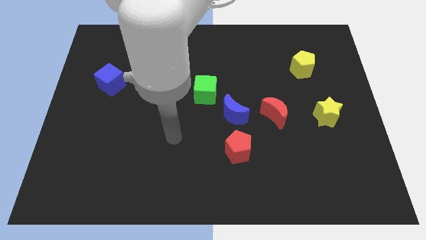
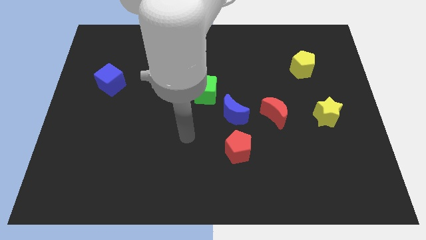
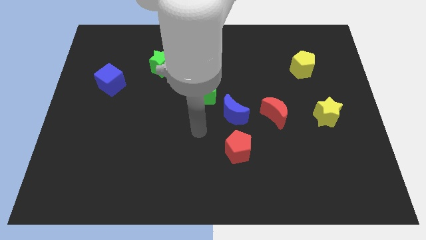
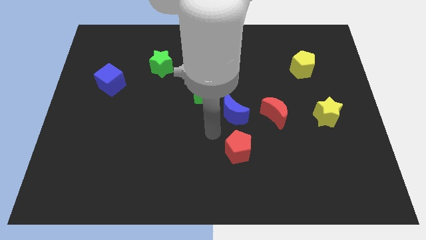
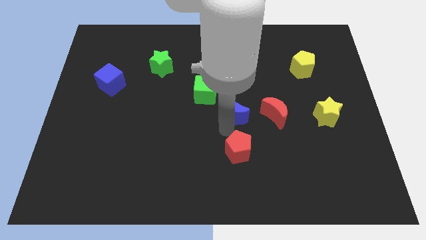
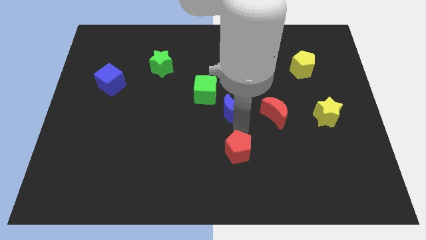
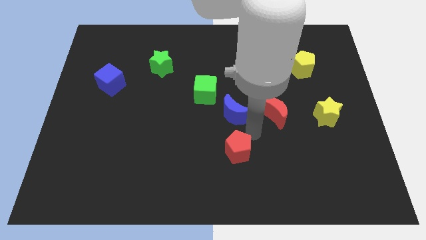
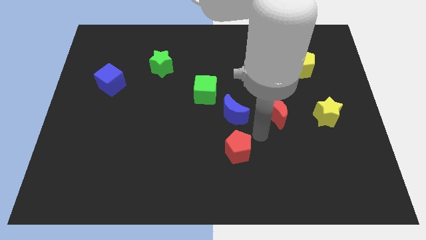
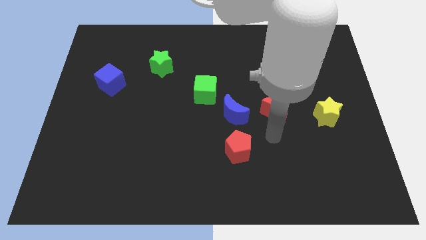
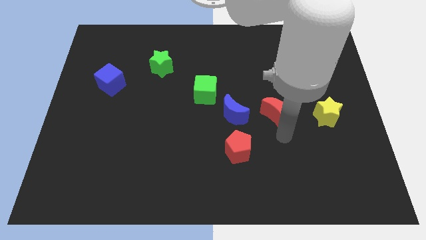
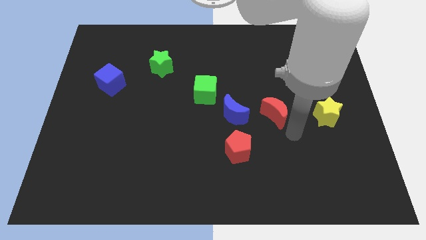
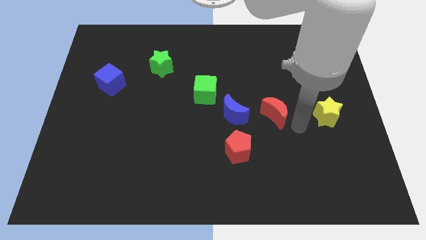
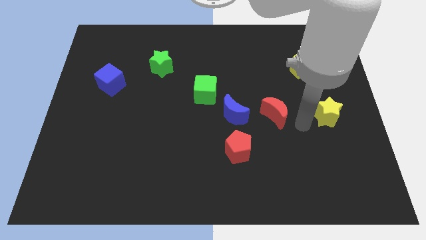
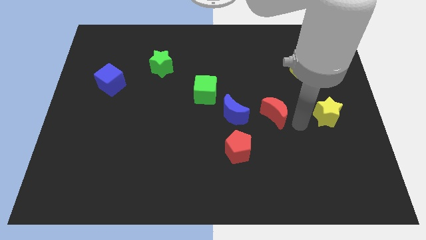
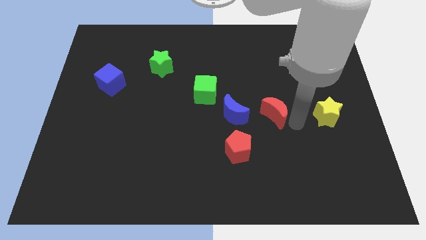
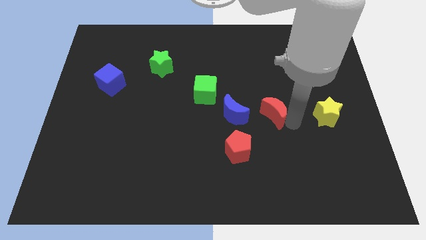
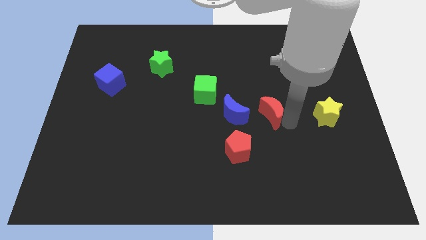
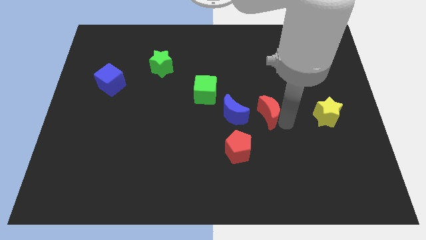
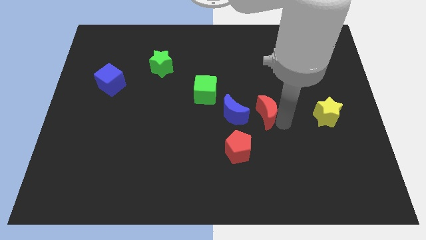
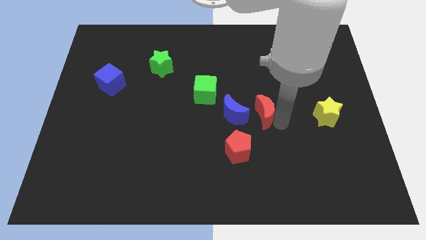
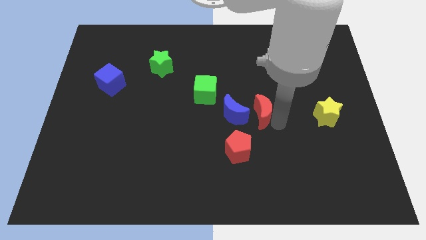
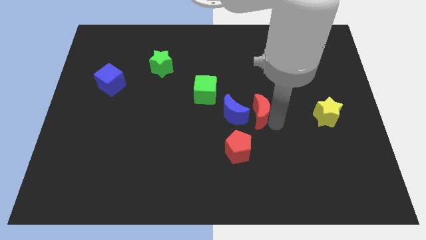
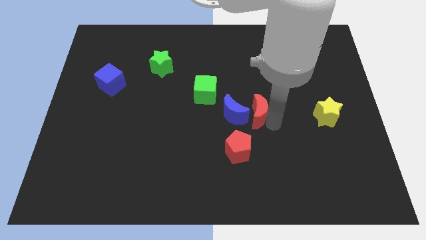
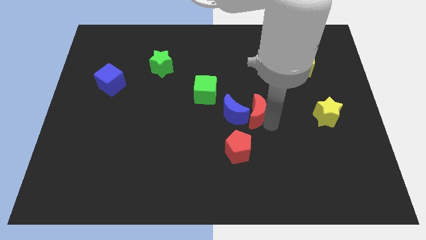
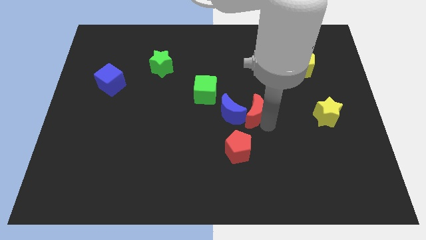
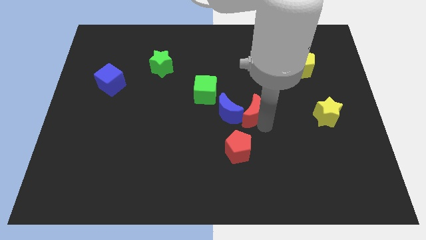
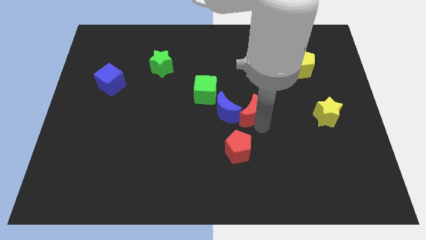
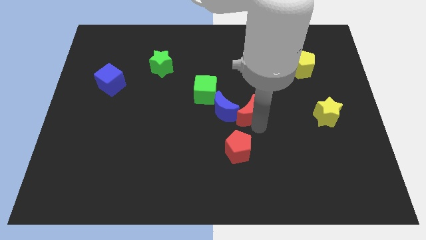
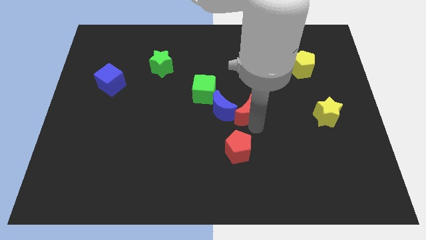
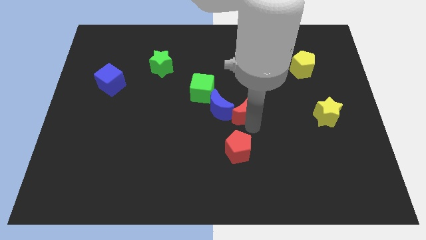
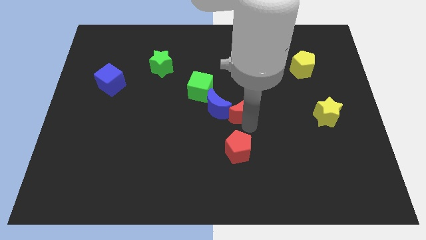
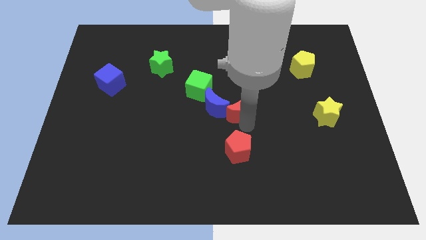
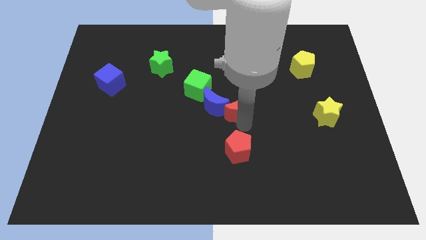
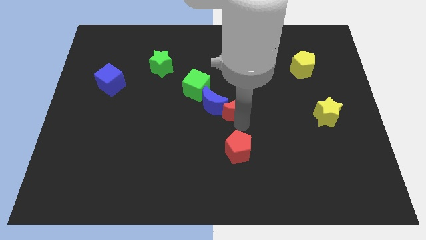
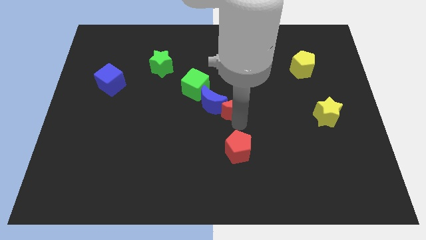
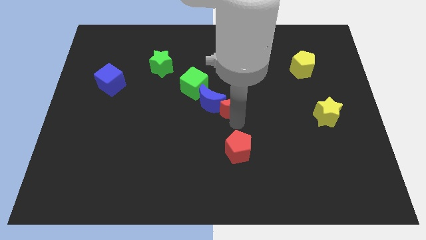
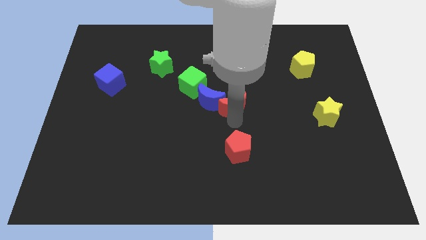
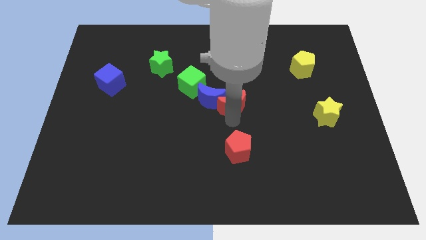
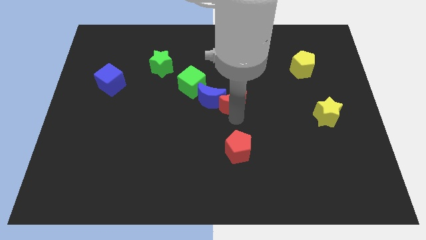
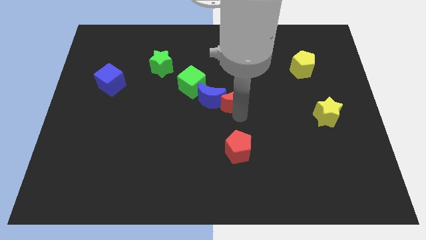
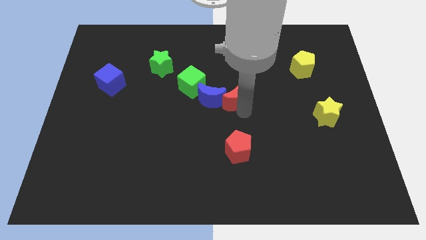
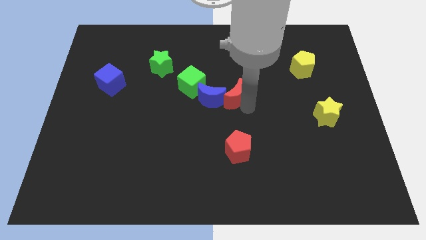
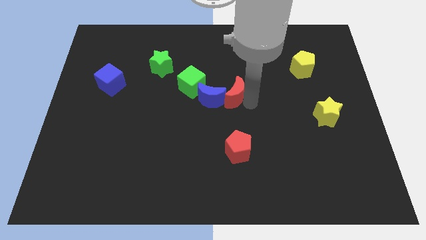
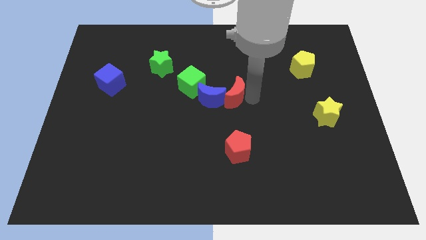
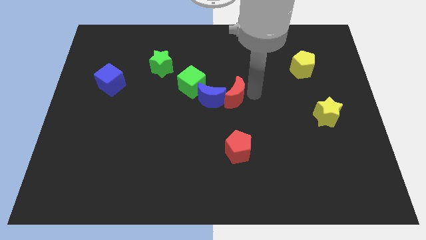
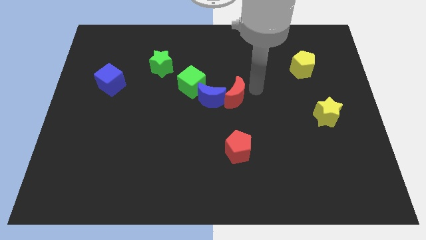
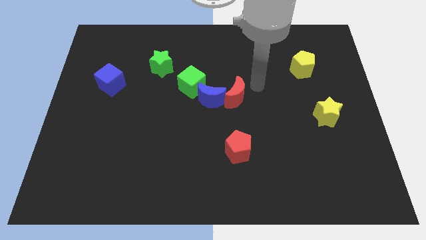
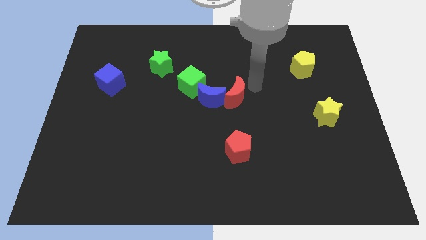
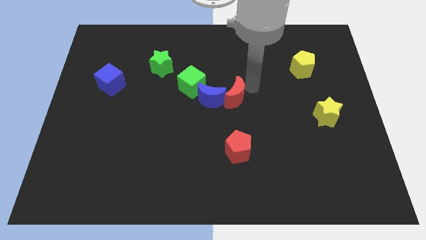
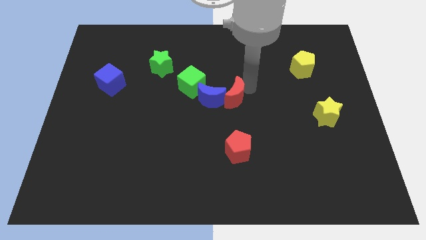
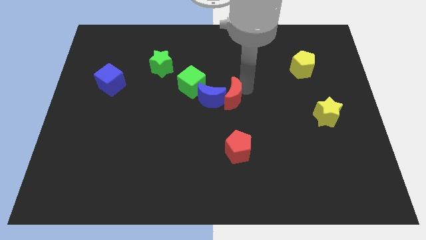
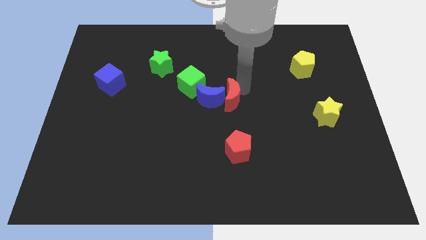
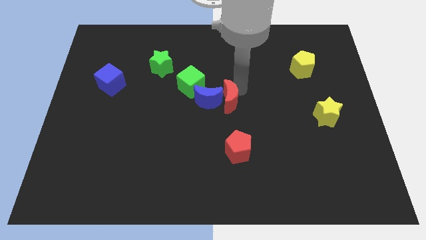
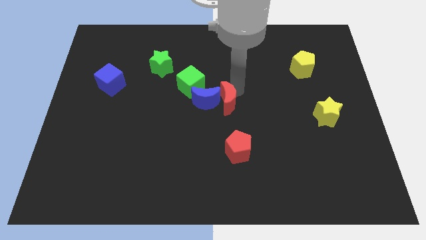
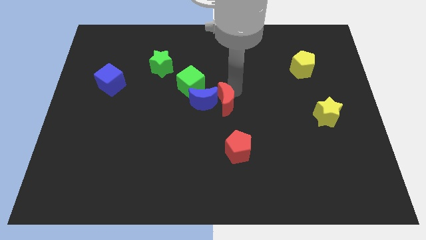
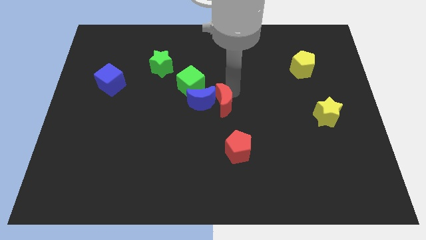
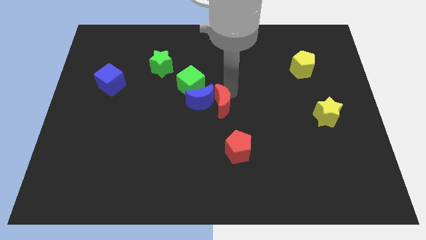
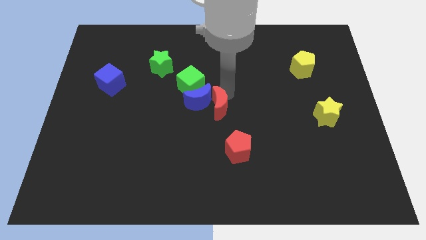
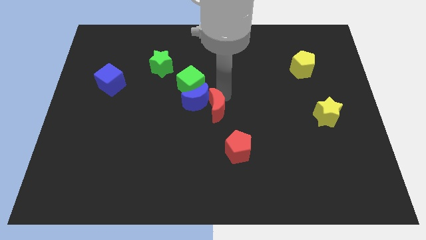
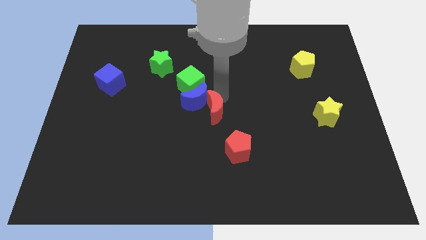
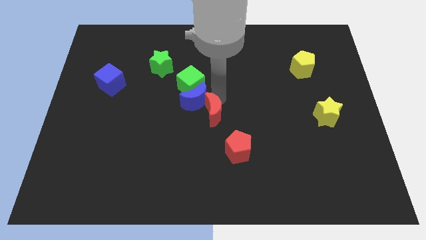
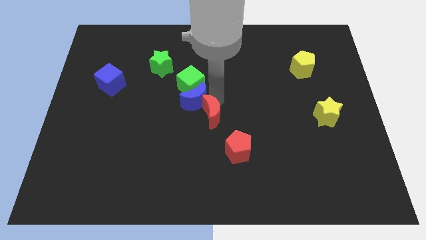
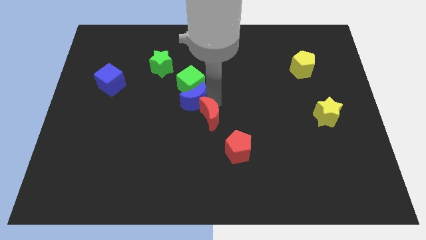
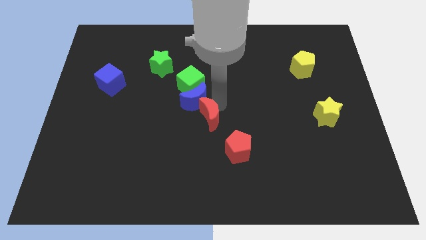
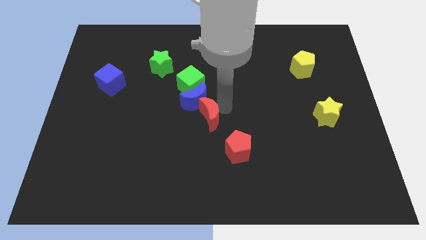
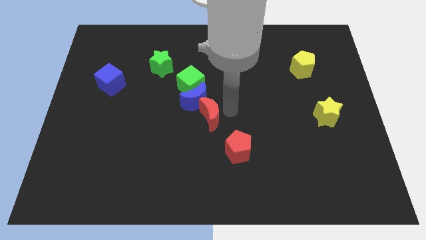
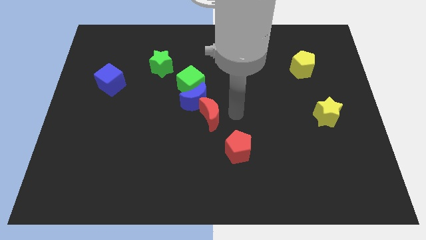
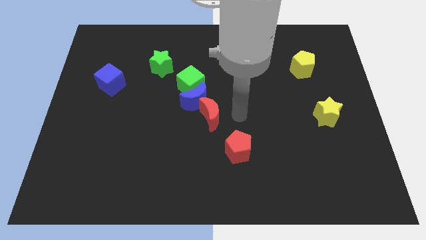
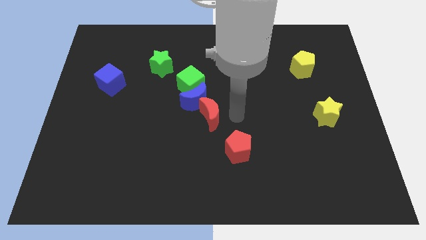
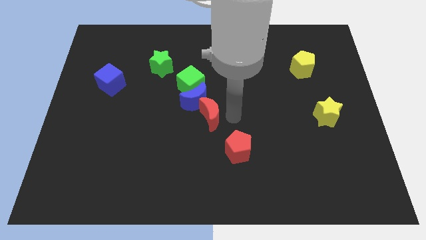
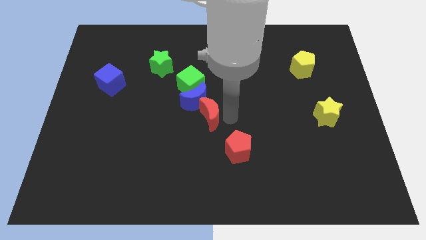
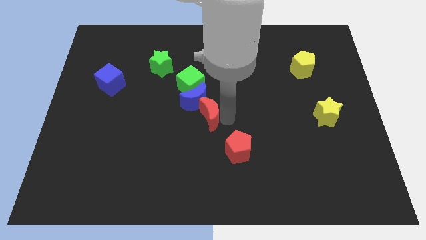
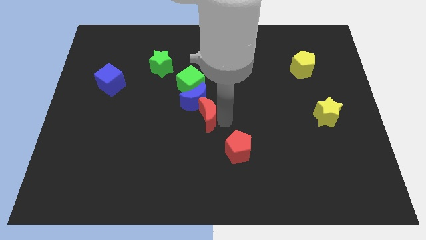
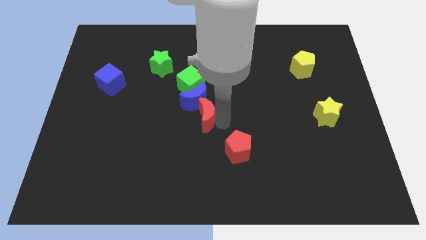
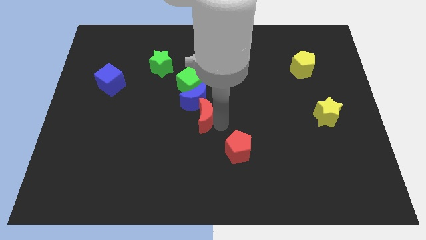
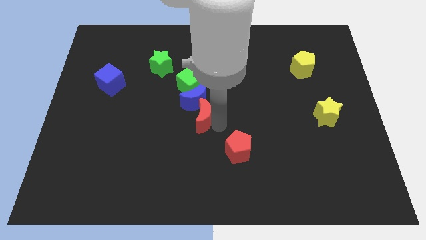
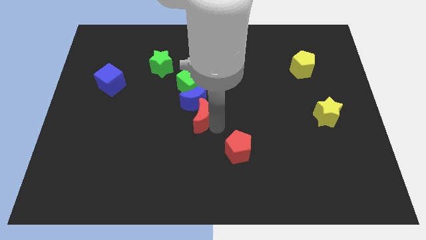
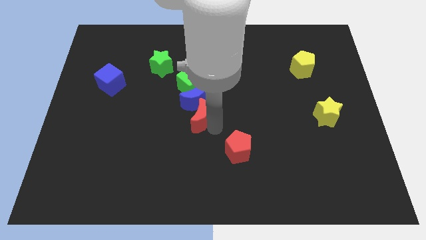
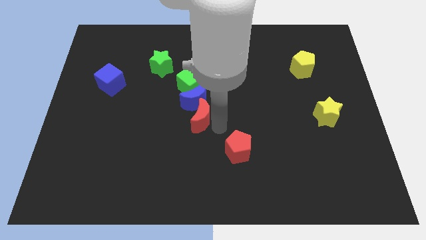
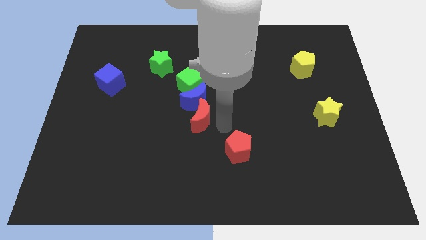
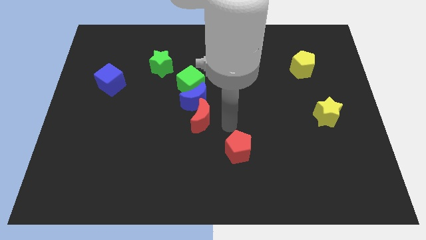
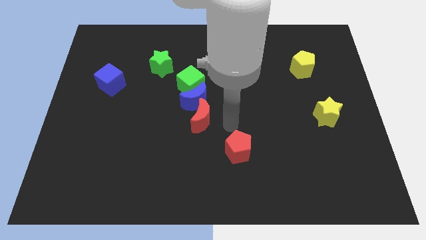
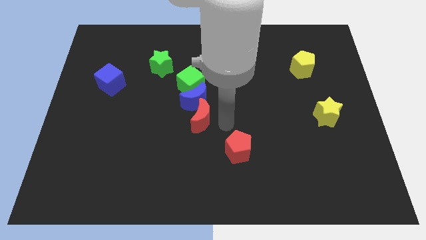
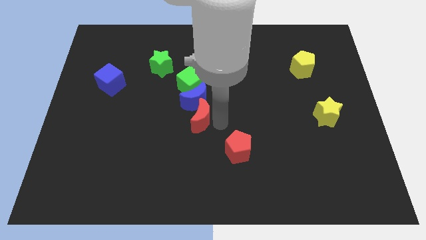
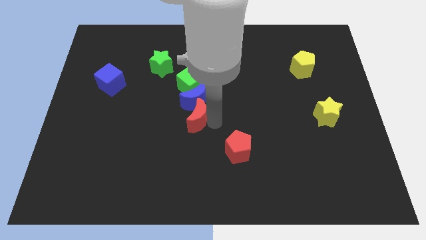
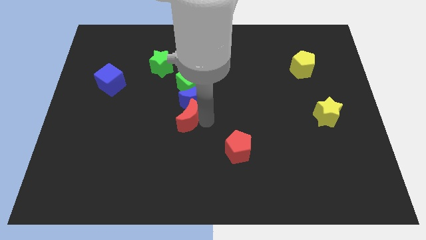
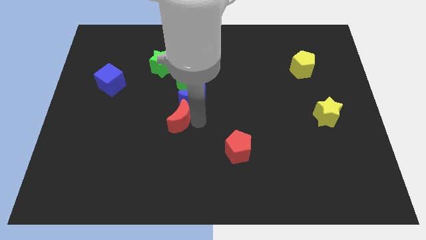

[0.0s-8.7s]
slide the red moon to the left
